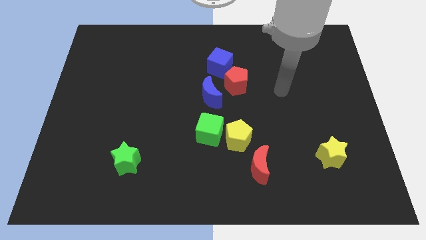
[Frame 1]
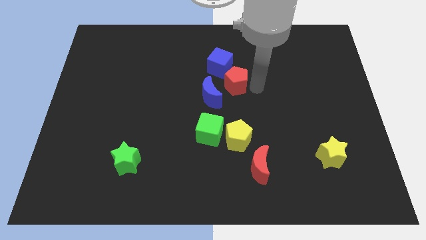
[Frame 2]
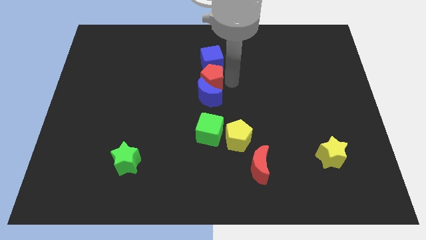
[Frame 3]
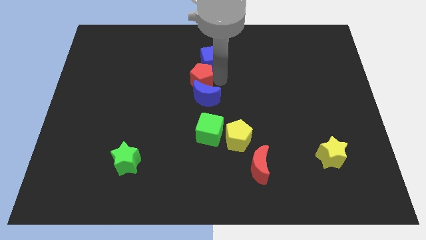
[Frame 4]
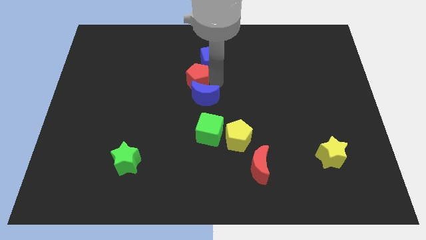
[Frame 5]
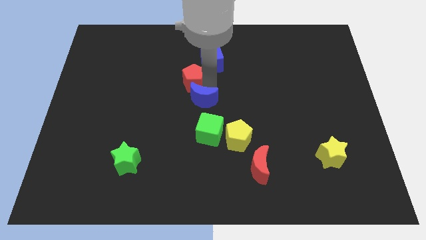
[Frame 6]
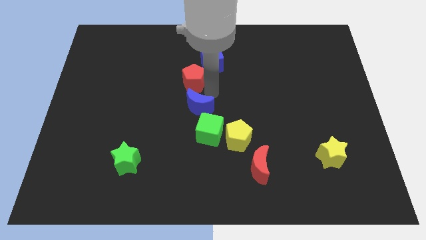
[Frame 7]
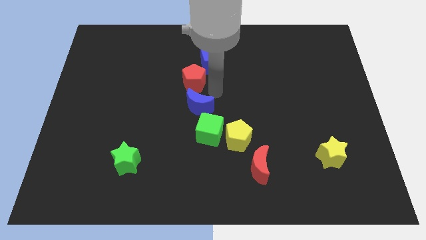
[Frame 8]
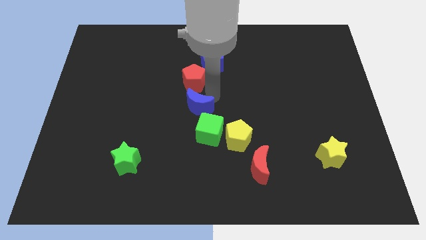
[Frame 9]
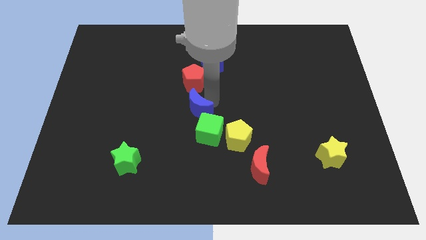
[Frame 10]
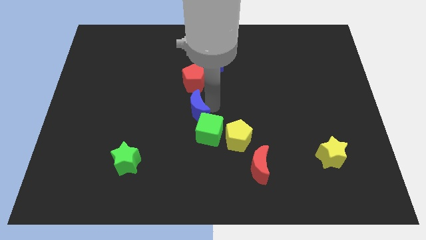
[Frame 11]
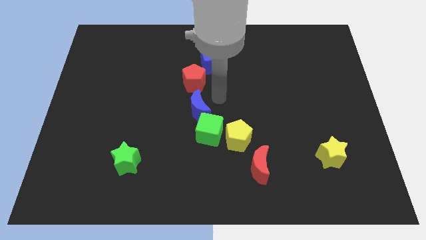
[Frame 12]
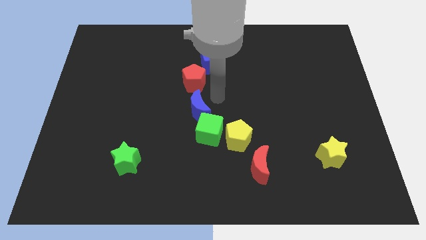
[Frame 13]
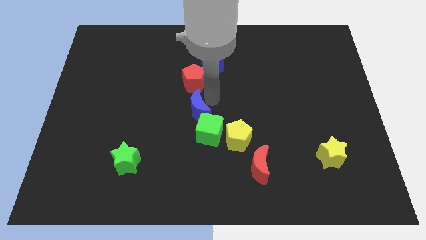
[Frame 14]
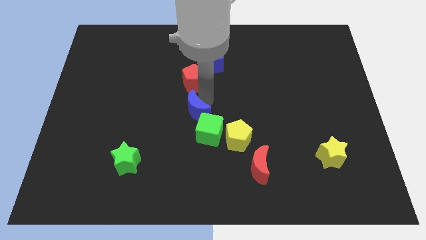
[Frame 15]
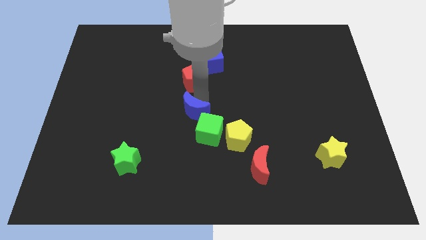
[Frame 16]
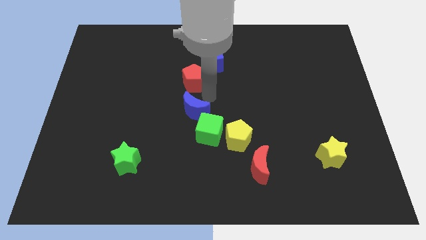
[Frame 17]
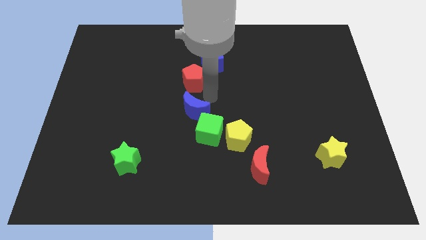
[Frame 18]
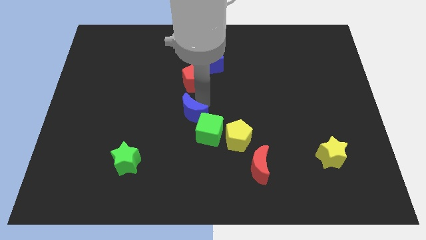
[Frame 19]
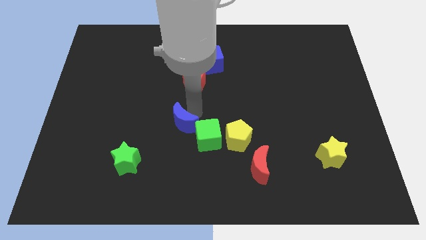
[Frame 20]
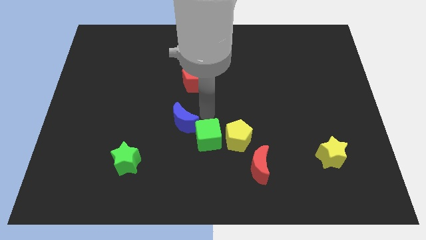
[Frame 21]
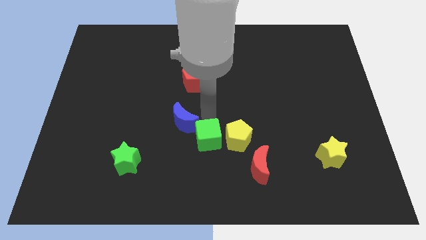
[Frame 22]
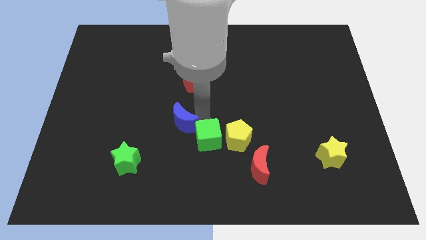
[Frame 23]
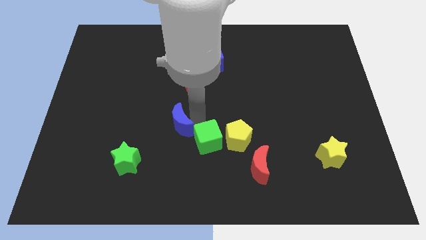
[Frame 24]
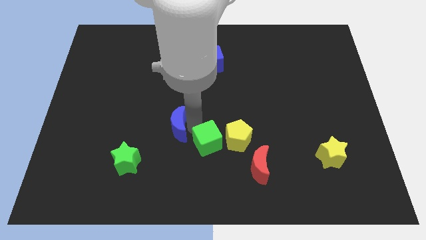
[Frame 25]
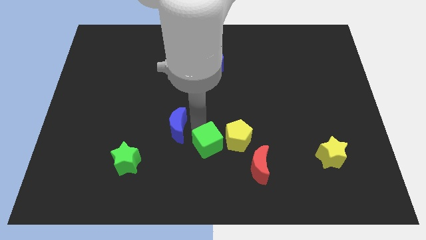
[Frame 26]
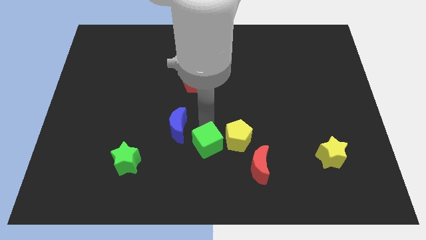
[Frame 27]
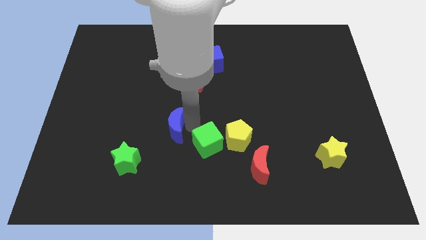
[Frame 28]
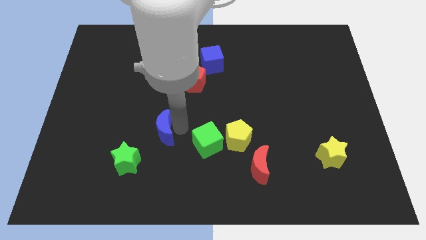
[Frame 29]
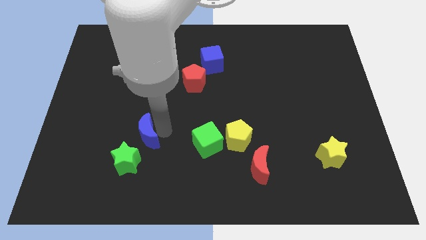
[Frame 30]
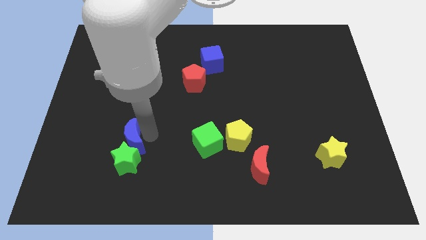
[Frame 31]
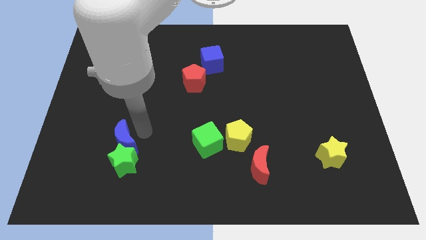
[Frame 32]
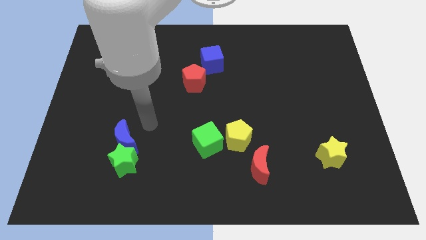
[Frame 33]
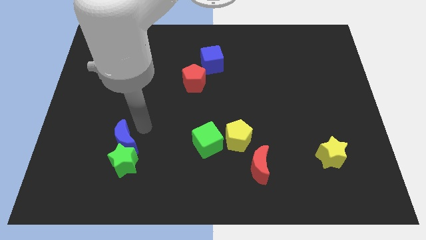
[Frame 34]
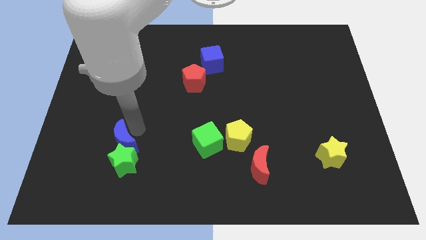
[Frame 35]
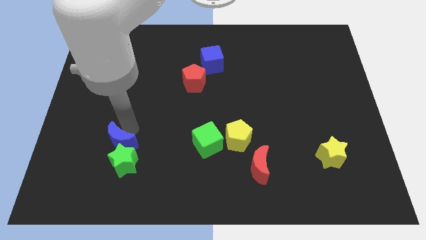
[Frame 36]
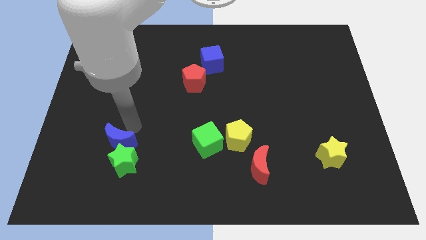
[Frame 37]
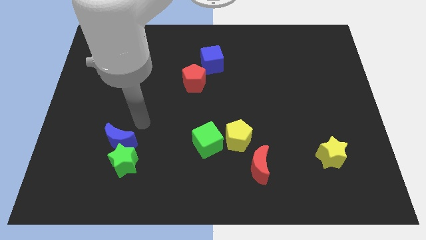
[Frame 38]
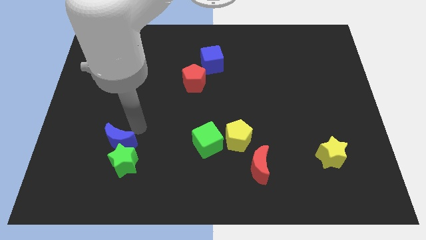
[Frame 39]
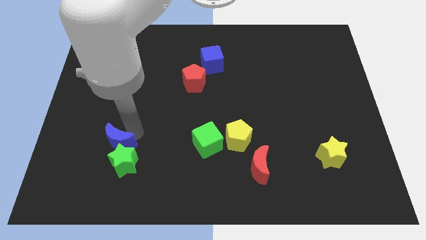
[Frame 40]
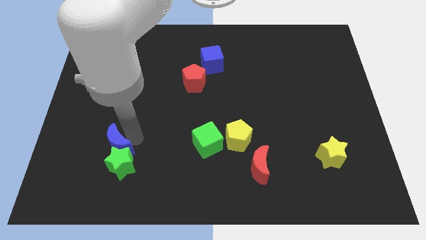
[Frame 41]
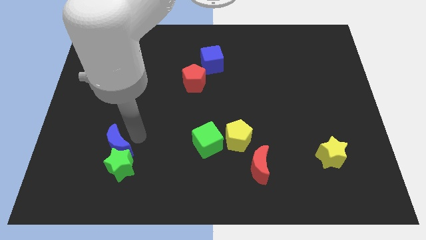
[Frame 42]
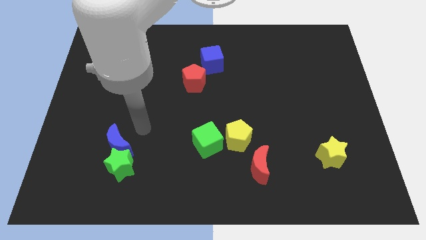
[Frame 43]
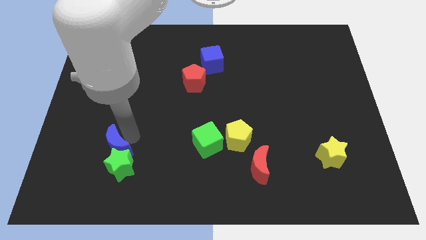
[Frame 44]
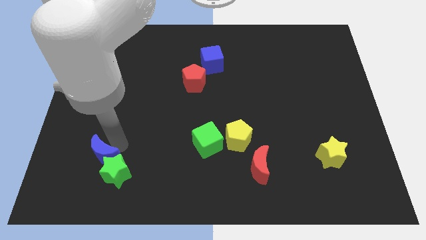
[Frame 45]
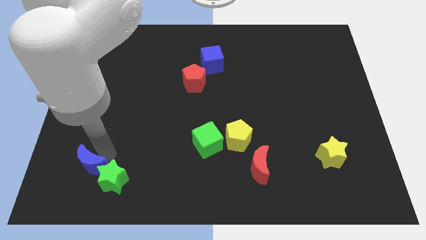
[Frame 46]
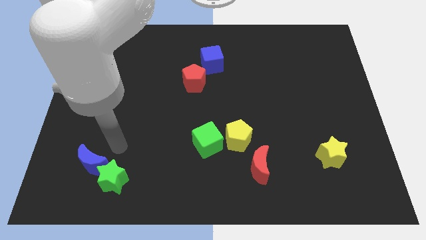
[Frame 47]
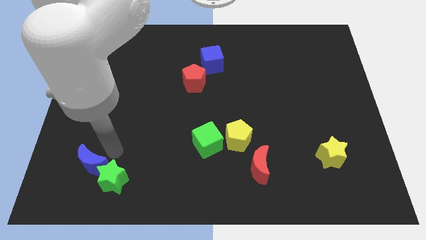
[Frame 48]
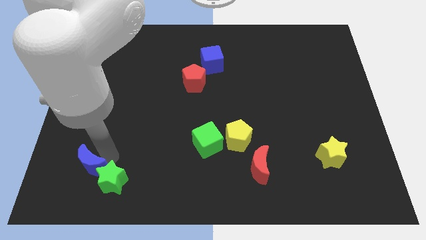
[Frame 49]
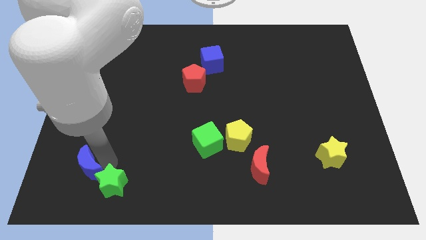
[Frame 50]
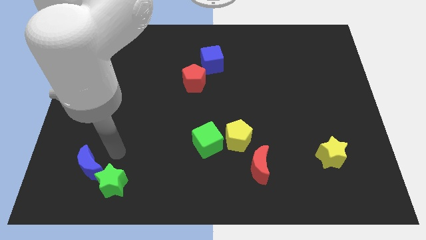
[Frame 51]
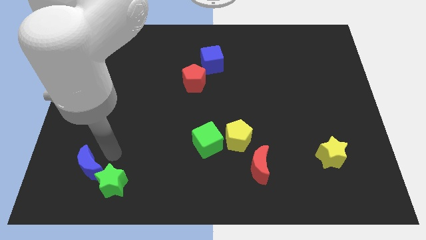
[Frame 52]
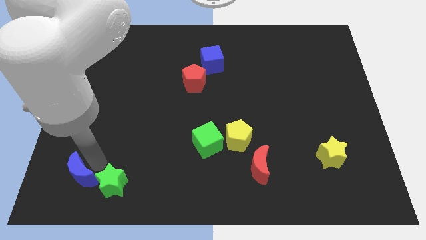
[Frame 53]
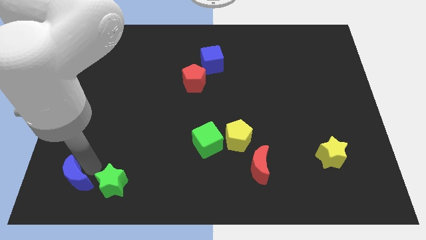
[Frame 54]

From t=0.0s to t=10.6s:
push the blue moon to the bottom left

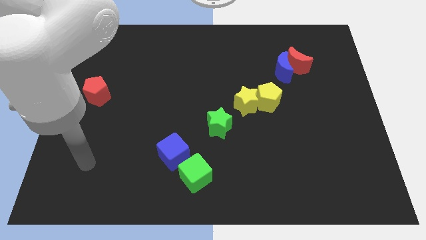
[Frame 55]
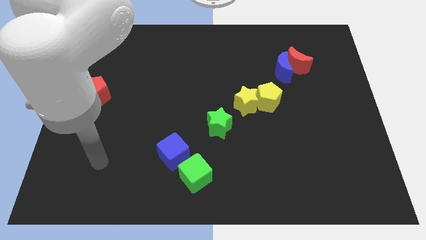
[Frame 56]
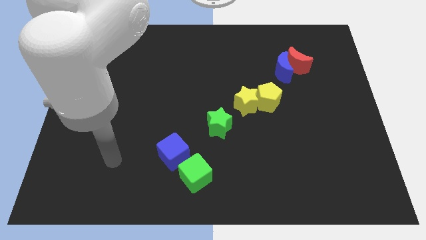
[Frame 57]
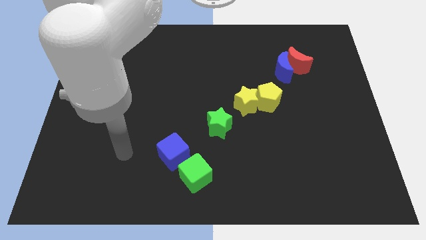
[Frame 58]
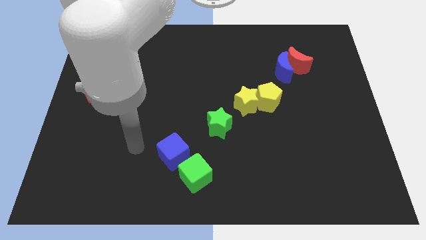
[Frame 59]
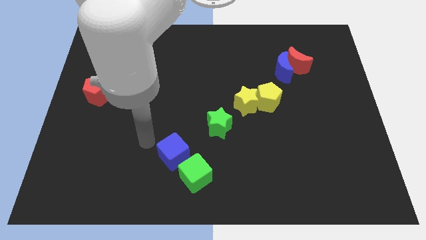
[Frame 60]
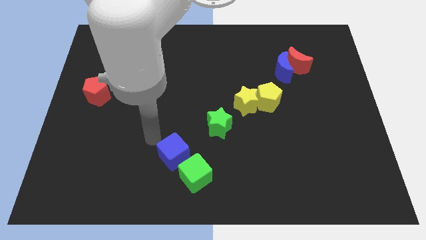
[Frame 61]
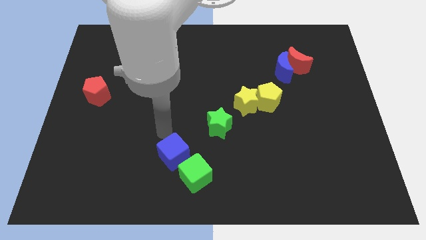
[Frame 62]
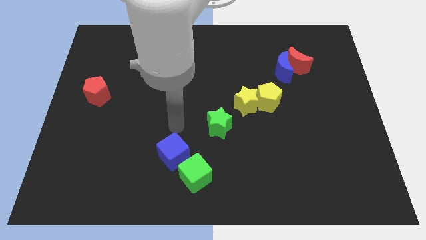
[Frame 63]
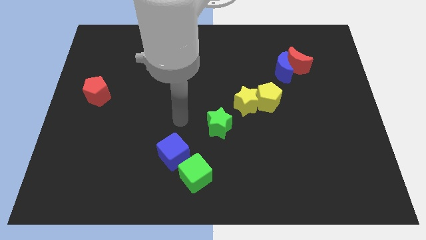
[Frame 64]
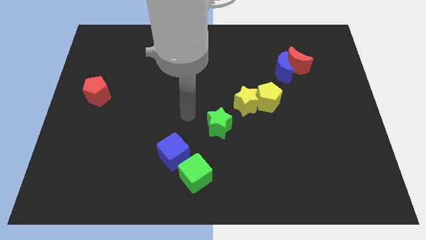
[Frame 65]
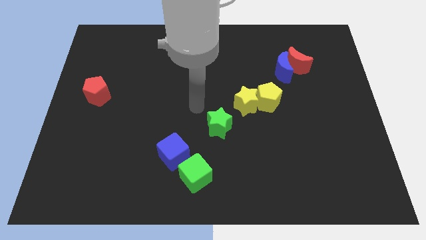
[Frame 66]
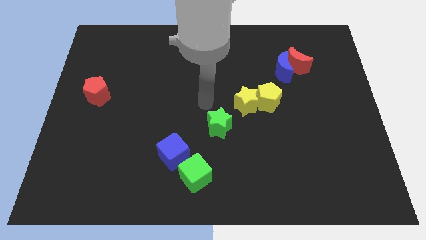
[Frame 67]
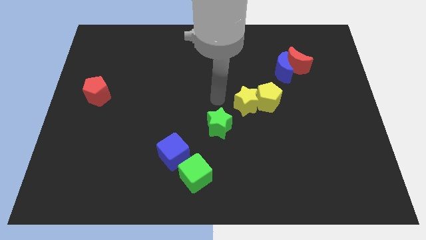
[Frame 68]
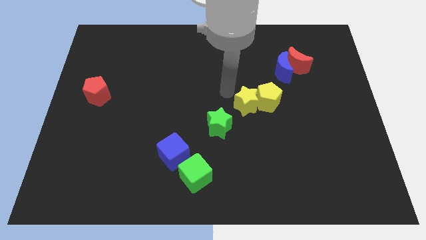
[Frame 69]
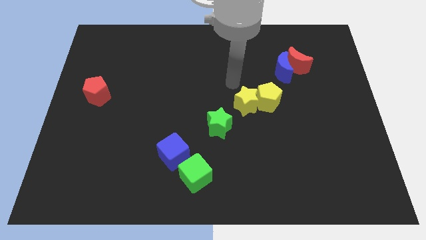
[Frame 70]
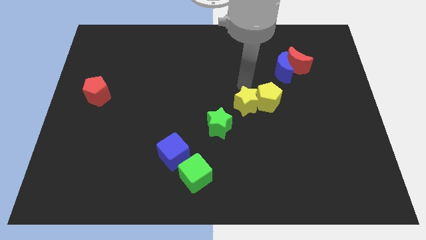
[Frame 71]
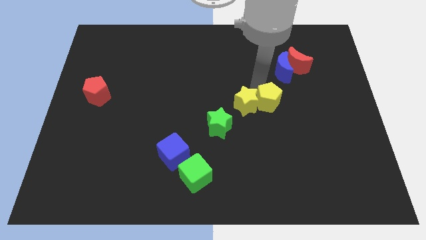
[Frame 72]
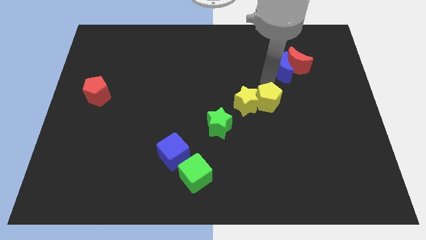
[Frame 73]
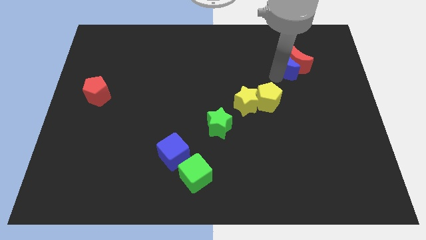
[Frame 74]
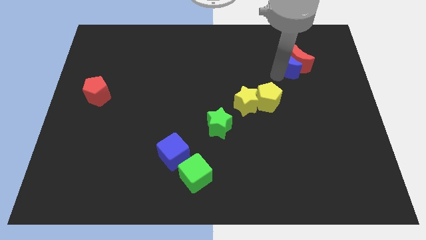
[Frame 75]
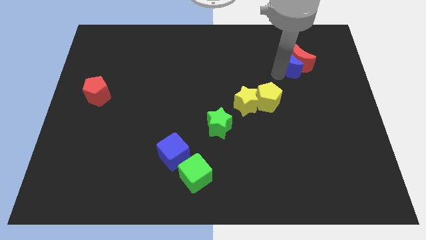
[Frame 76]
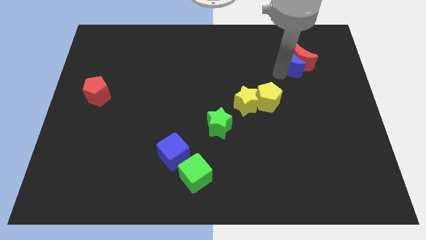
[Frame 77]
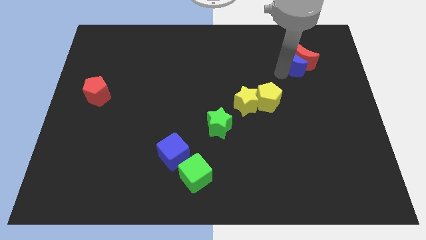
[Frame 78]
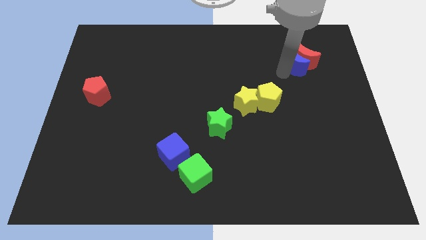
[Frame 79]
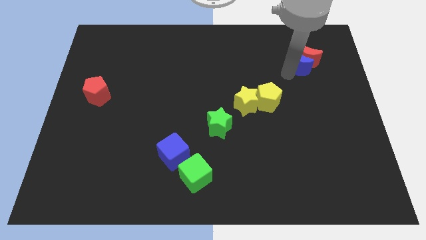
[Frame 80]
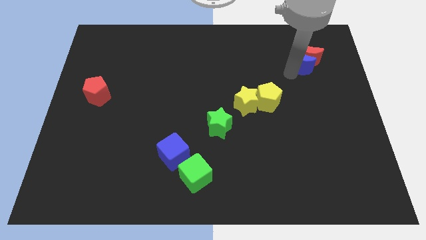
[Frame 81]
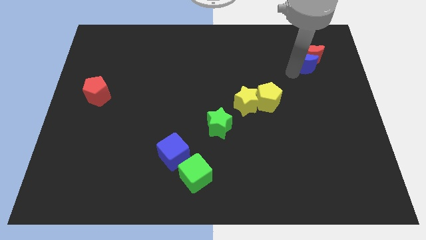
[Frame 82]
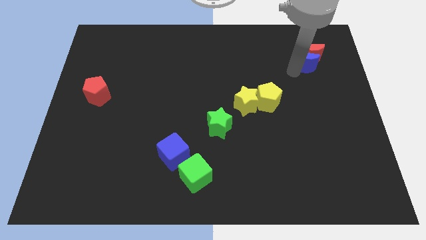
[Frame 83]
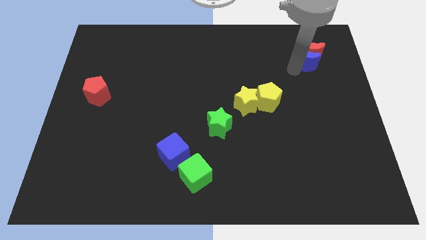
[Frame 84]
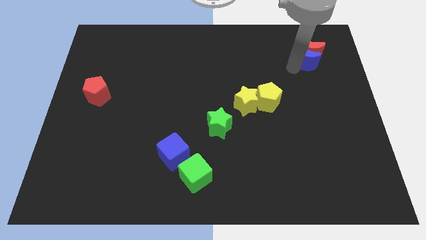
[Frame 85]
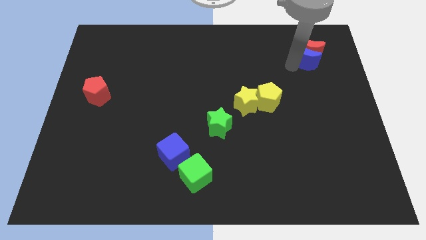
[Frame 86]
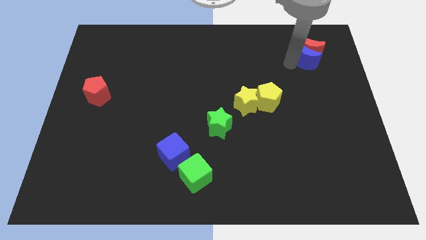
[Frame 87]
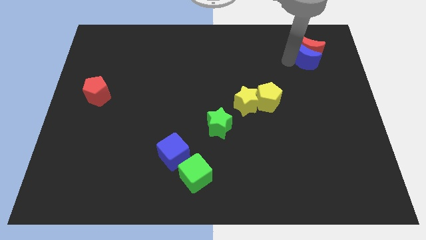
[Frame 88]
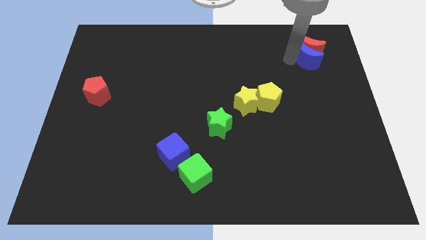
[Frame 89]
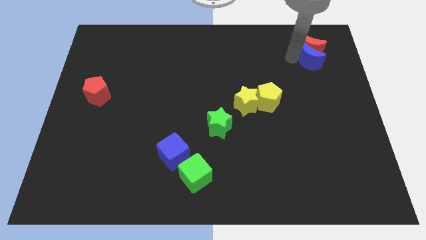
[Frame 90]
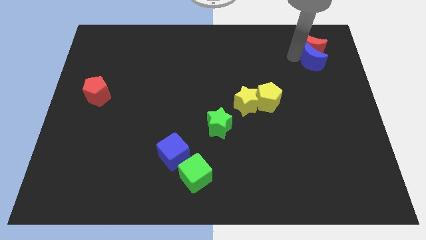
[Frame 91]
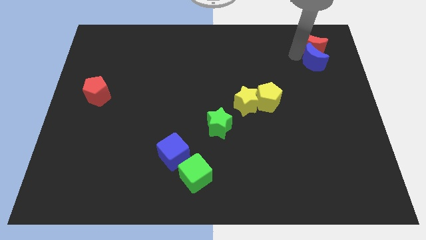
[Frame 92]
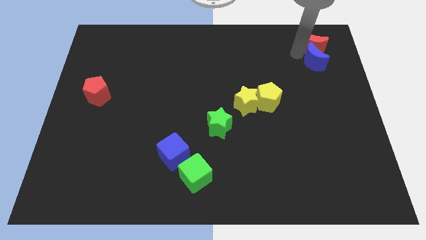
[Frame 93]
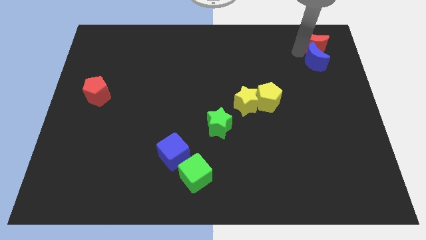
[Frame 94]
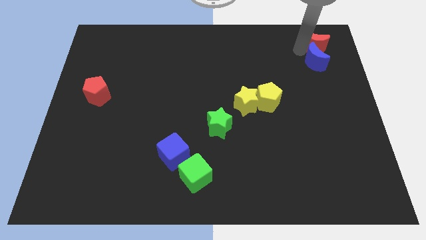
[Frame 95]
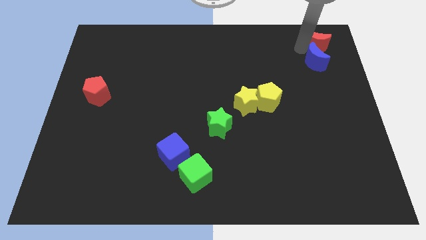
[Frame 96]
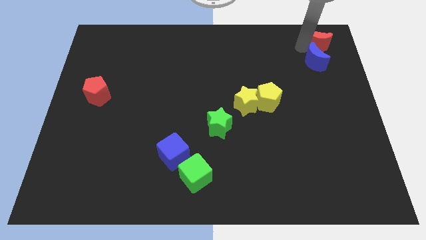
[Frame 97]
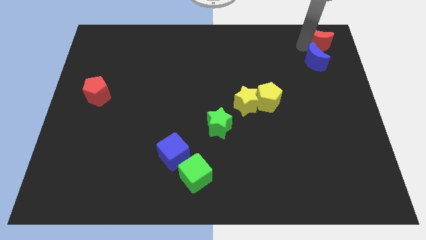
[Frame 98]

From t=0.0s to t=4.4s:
move the red moon to the top right corner
